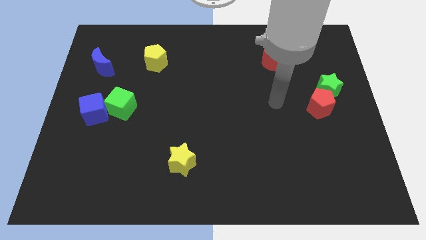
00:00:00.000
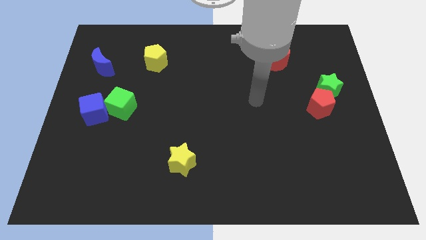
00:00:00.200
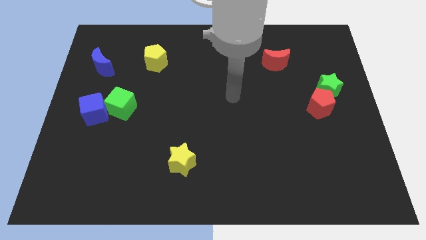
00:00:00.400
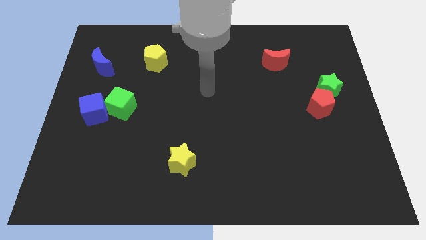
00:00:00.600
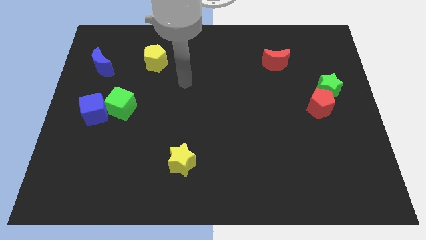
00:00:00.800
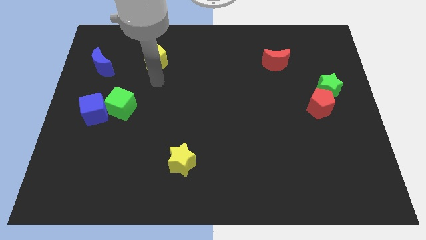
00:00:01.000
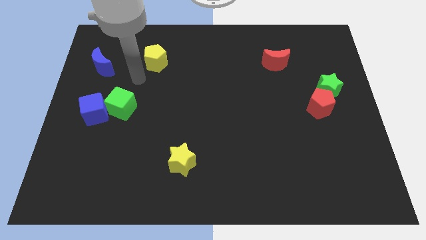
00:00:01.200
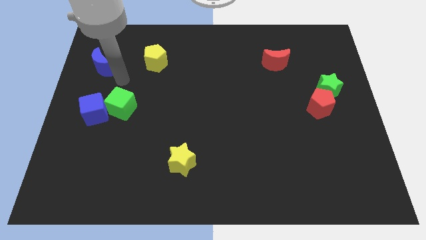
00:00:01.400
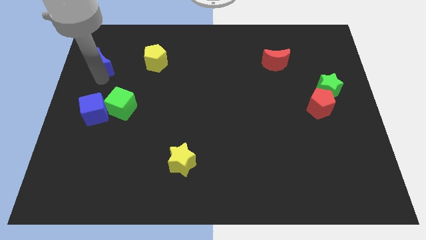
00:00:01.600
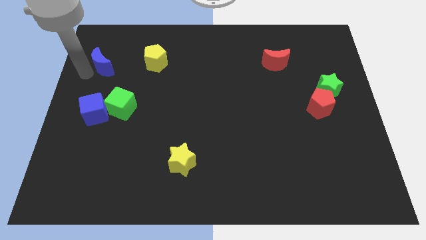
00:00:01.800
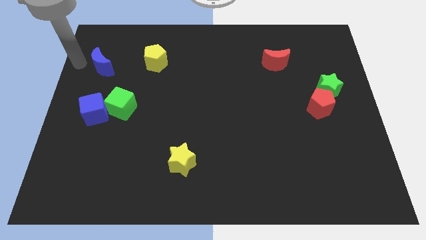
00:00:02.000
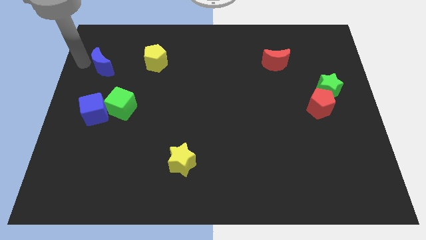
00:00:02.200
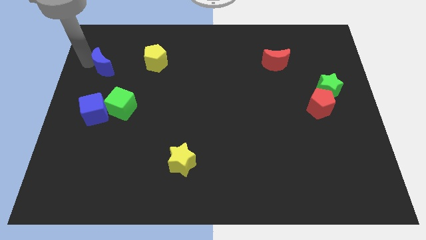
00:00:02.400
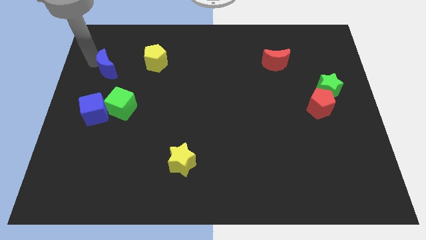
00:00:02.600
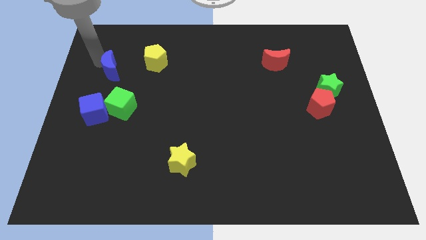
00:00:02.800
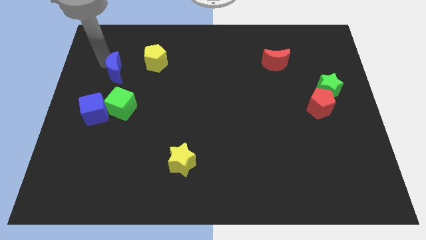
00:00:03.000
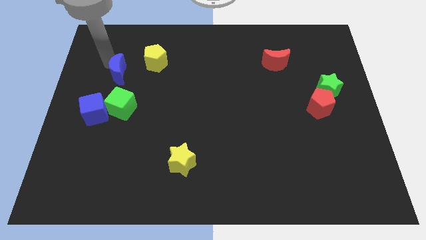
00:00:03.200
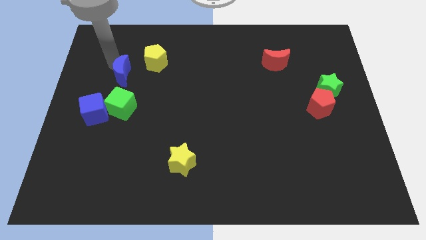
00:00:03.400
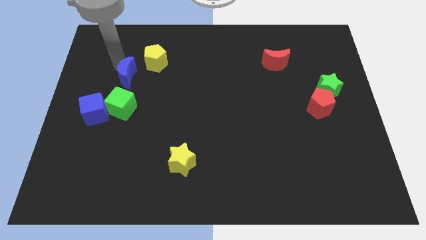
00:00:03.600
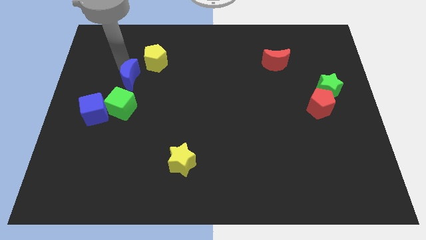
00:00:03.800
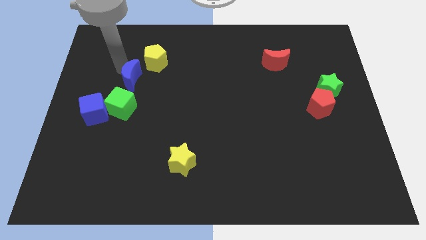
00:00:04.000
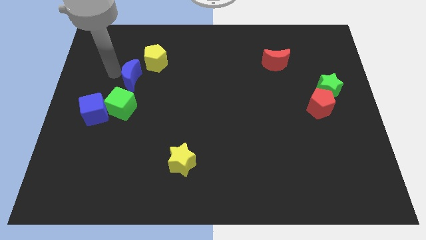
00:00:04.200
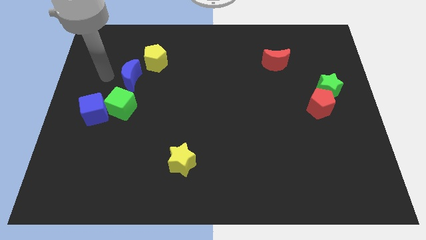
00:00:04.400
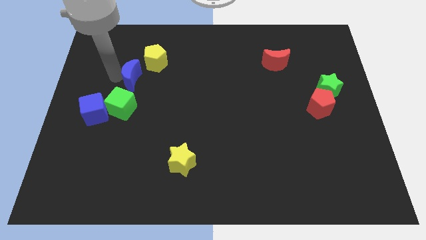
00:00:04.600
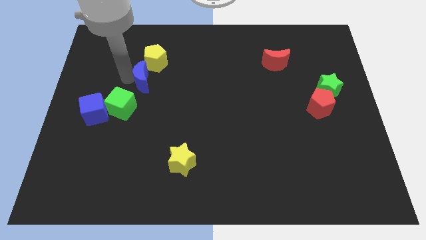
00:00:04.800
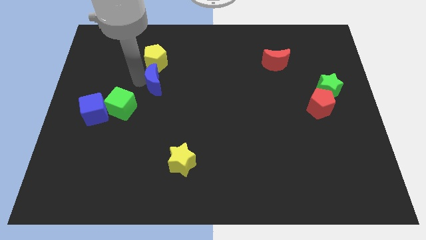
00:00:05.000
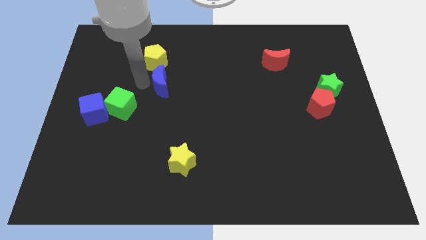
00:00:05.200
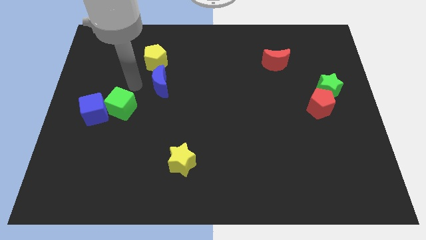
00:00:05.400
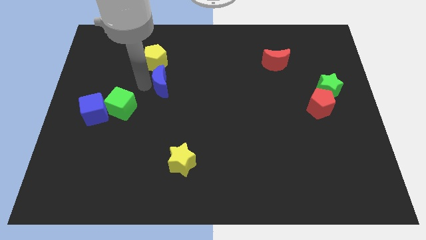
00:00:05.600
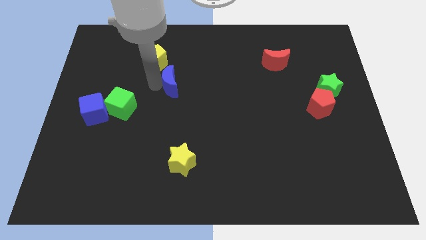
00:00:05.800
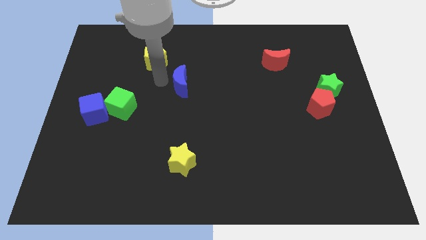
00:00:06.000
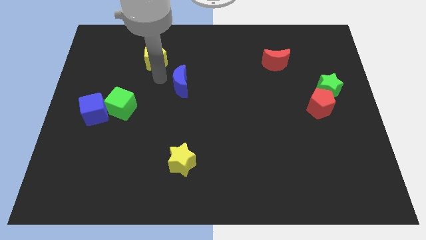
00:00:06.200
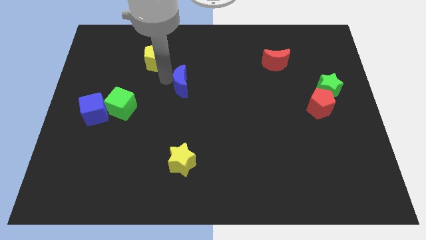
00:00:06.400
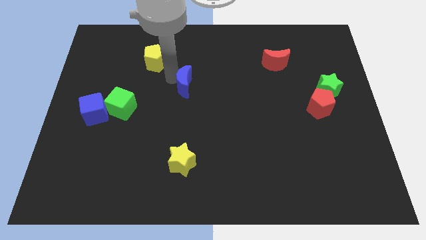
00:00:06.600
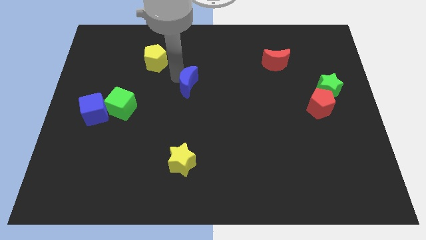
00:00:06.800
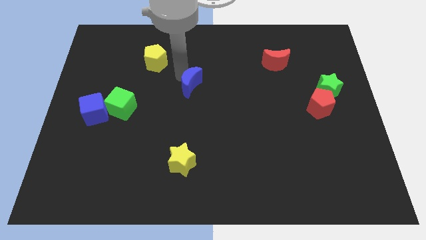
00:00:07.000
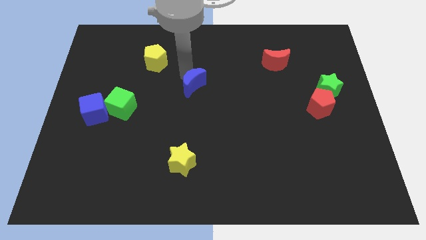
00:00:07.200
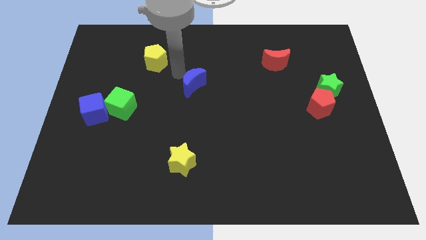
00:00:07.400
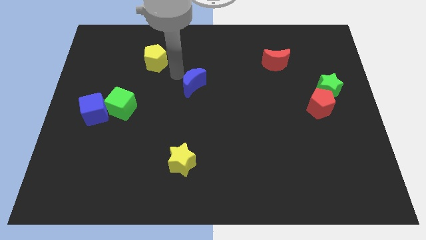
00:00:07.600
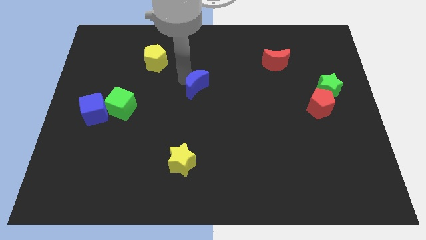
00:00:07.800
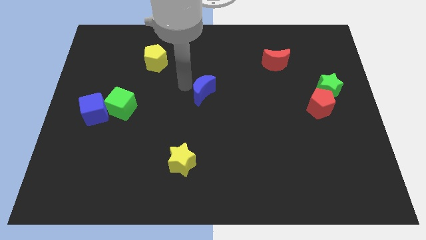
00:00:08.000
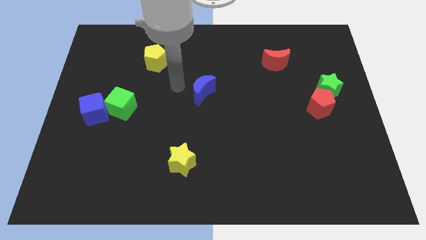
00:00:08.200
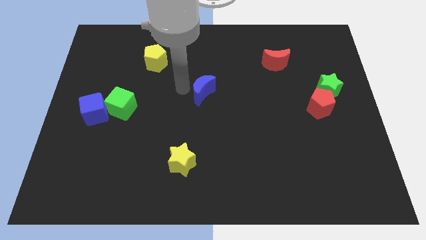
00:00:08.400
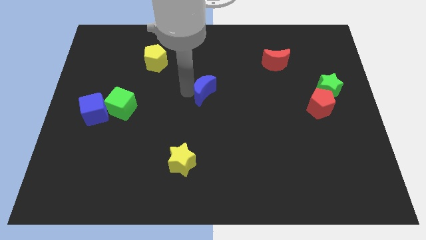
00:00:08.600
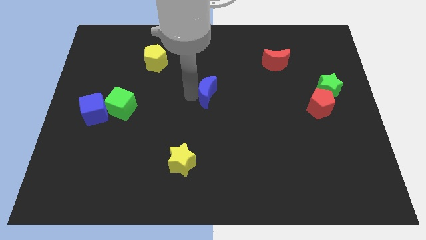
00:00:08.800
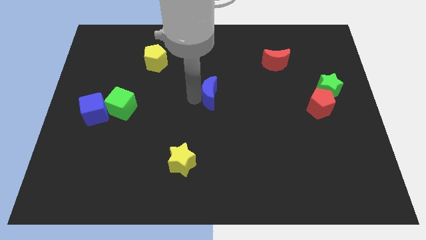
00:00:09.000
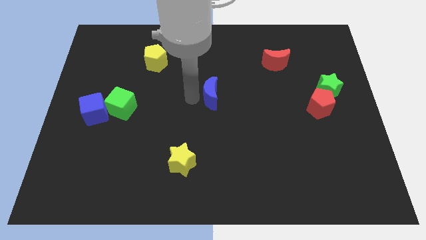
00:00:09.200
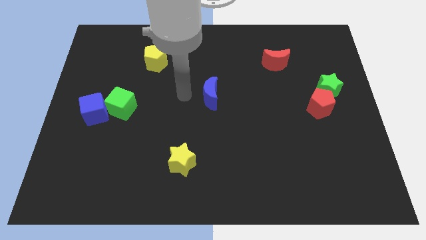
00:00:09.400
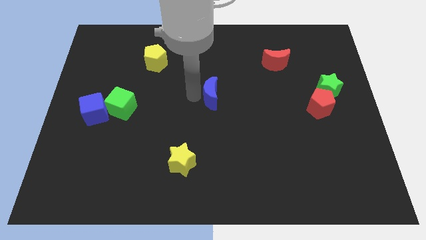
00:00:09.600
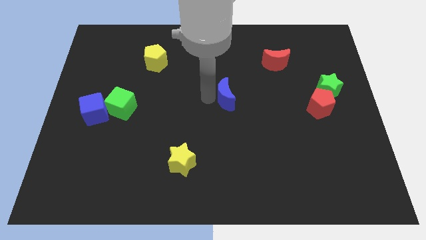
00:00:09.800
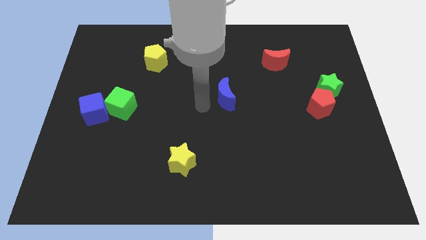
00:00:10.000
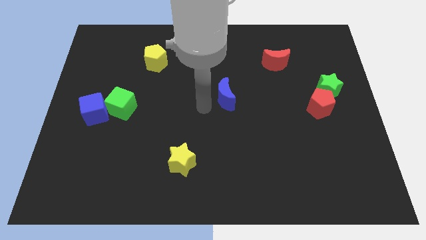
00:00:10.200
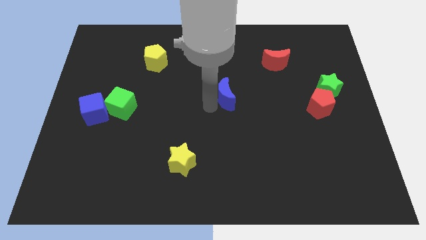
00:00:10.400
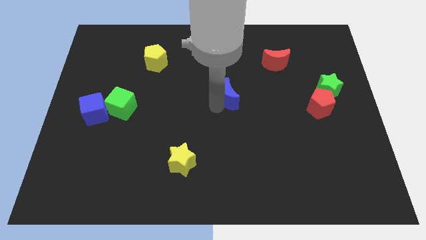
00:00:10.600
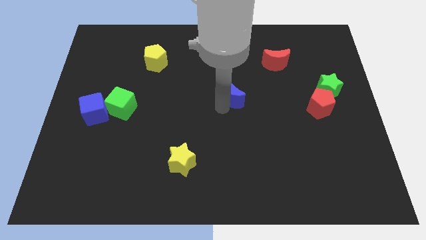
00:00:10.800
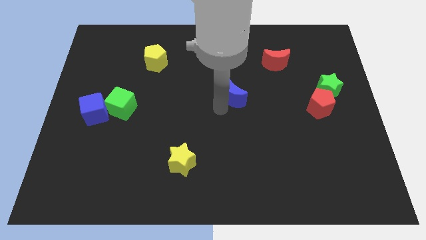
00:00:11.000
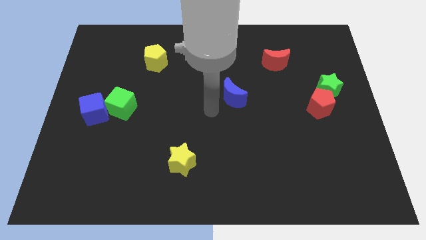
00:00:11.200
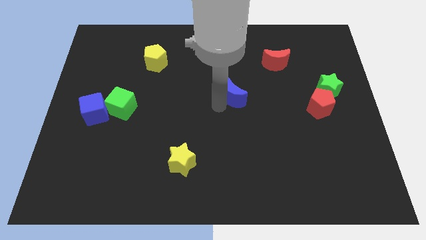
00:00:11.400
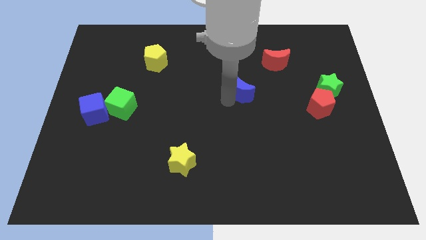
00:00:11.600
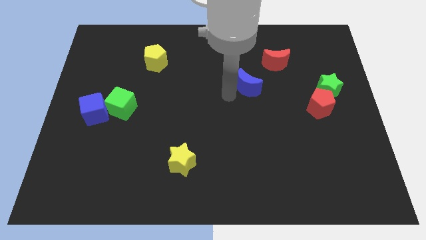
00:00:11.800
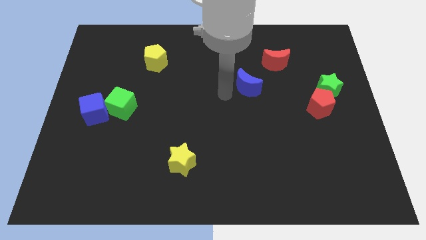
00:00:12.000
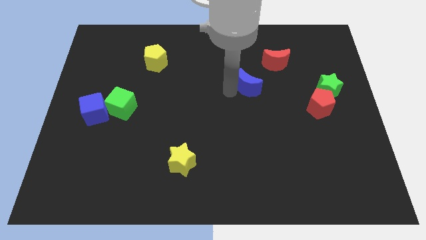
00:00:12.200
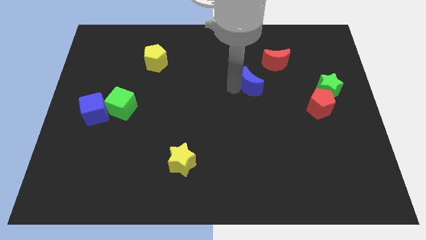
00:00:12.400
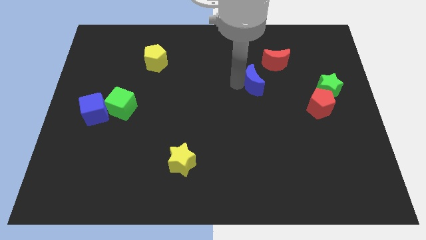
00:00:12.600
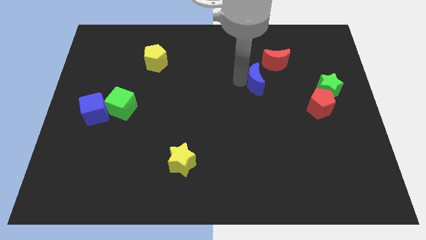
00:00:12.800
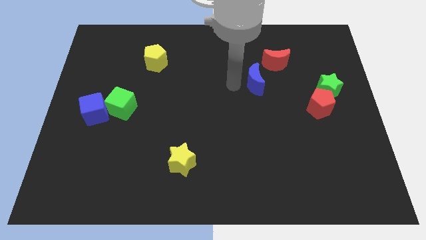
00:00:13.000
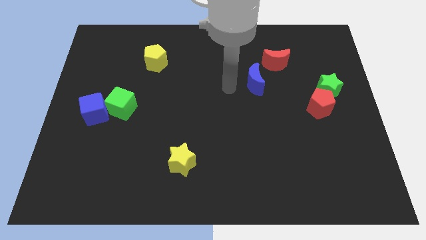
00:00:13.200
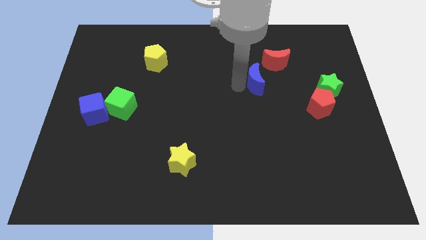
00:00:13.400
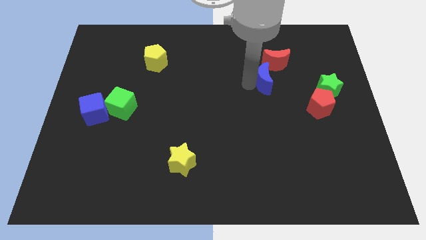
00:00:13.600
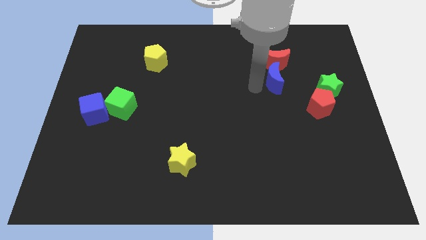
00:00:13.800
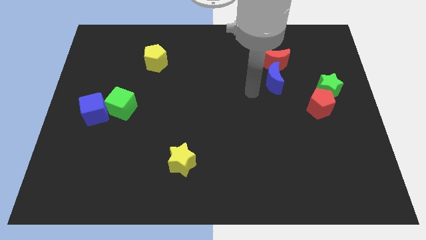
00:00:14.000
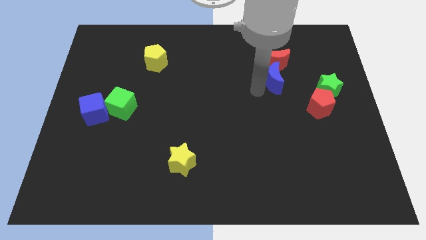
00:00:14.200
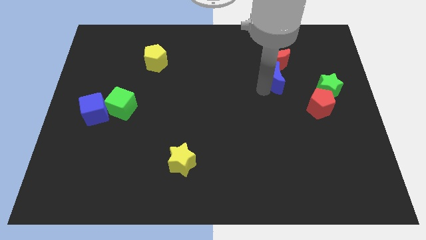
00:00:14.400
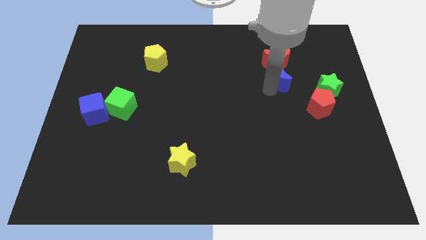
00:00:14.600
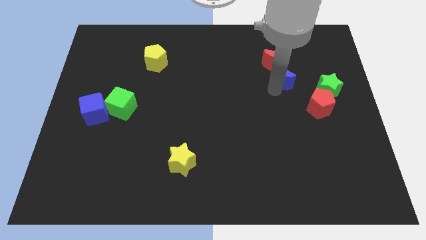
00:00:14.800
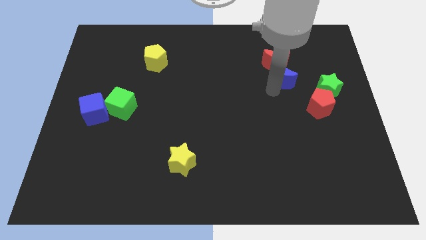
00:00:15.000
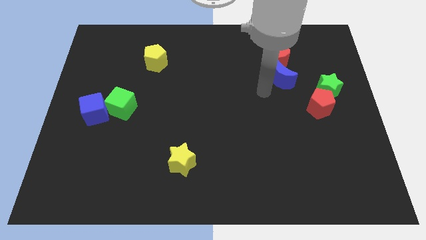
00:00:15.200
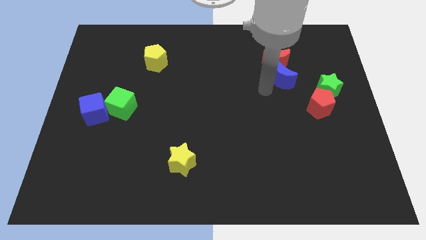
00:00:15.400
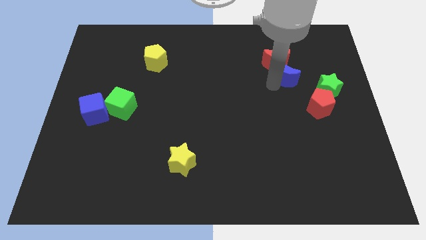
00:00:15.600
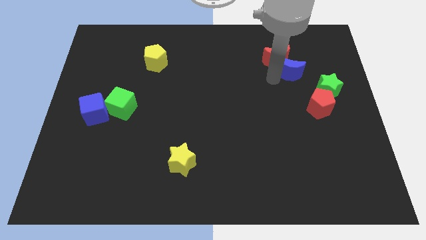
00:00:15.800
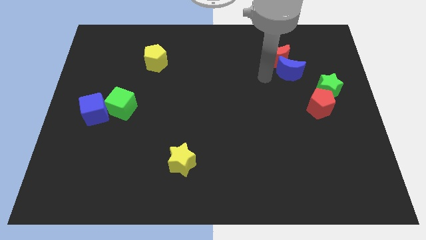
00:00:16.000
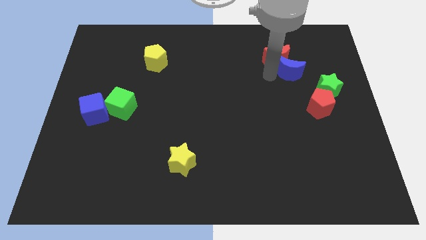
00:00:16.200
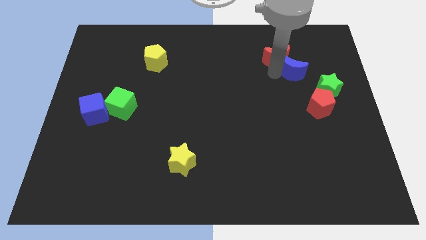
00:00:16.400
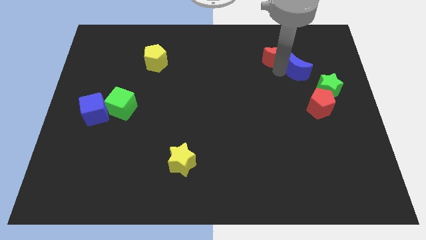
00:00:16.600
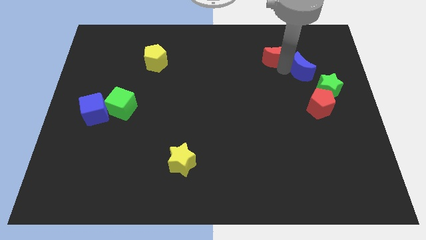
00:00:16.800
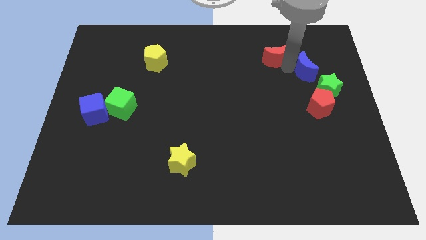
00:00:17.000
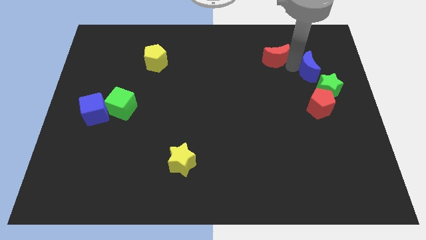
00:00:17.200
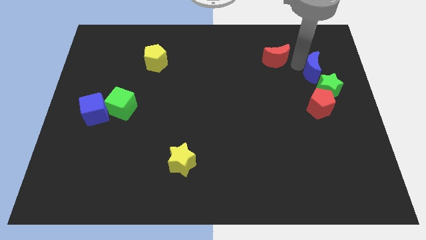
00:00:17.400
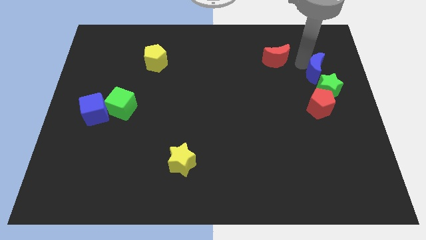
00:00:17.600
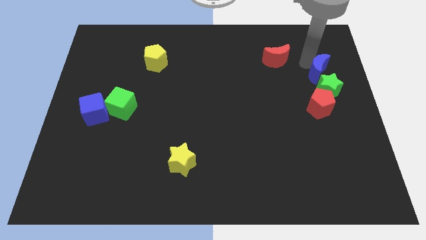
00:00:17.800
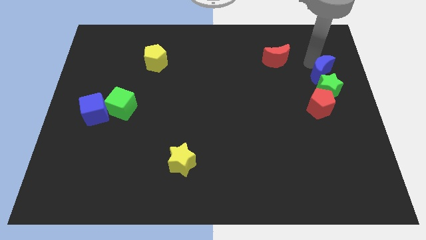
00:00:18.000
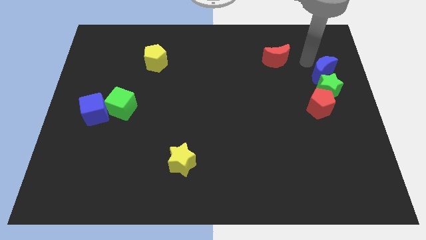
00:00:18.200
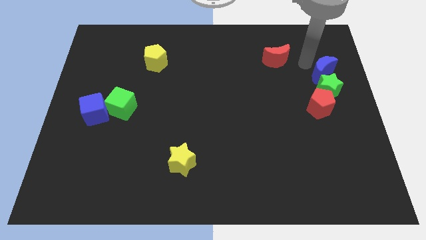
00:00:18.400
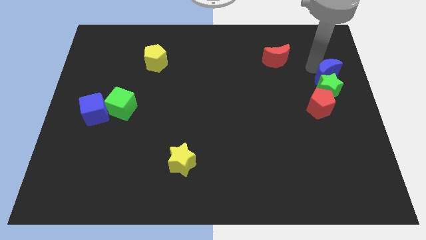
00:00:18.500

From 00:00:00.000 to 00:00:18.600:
put the blue moon to the right side
